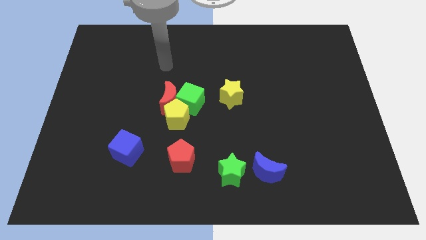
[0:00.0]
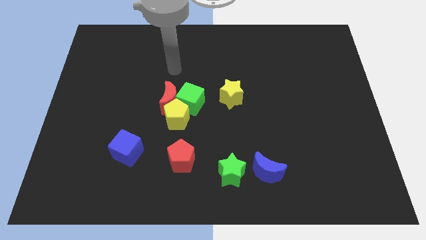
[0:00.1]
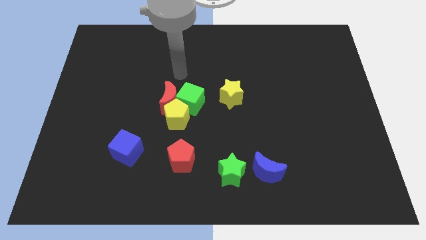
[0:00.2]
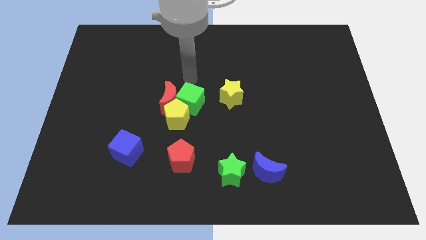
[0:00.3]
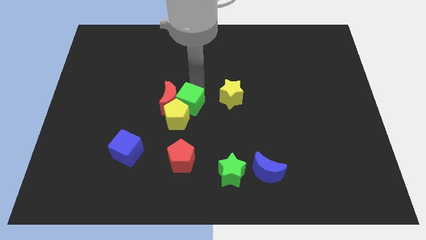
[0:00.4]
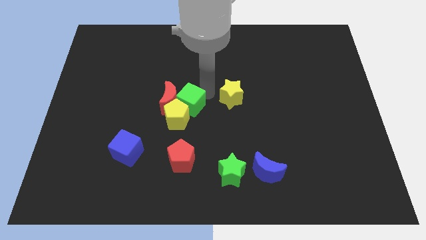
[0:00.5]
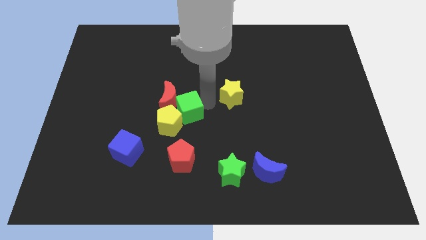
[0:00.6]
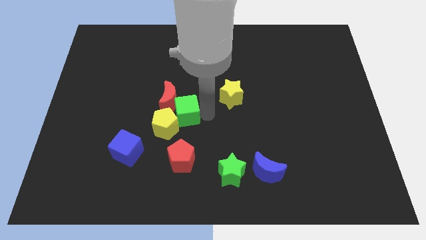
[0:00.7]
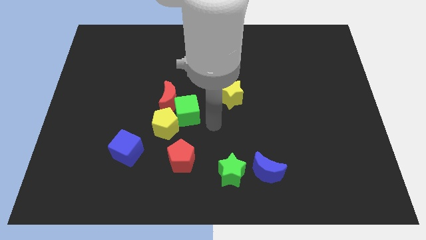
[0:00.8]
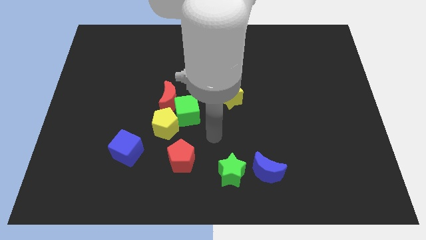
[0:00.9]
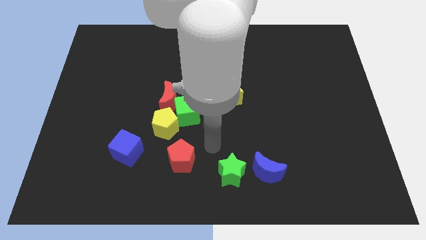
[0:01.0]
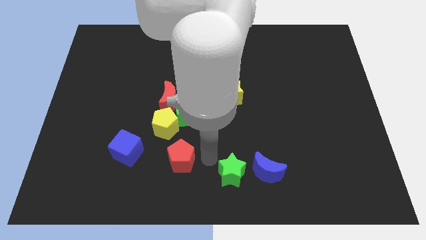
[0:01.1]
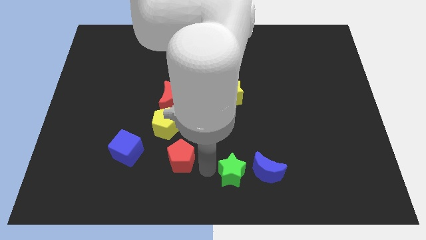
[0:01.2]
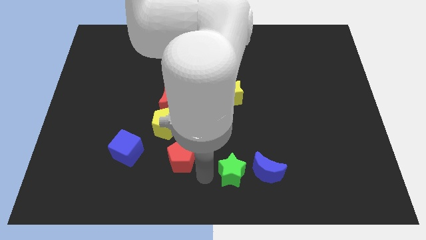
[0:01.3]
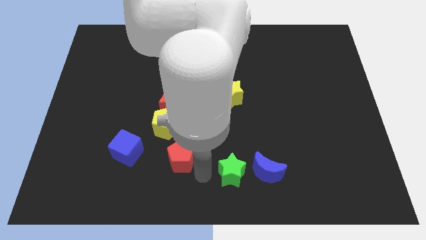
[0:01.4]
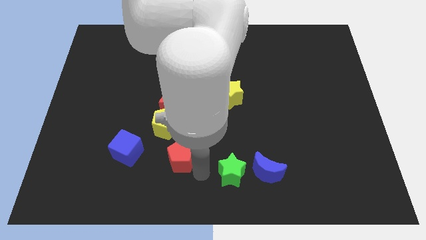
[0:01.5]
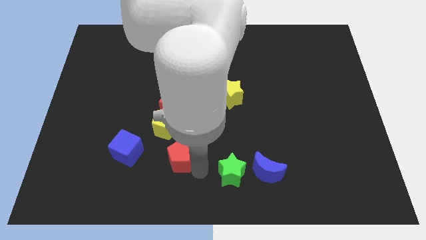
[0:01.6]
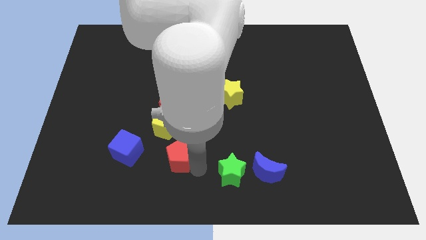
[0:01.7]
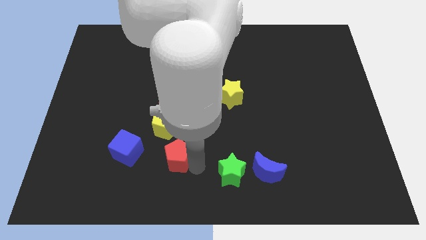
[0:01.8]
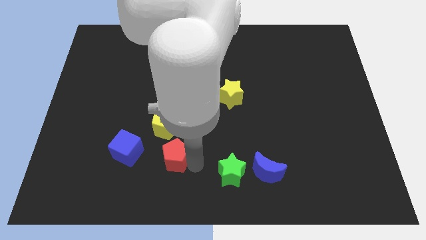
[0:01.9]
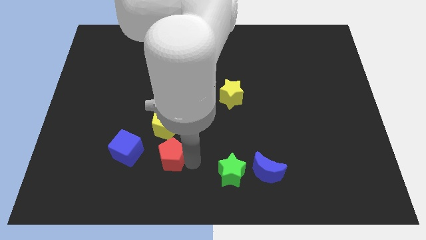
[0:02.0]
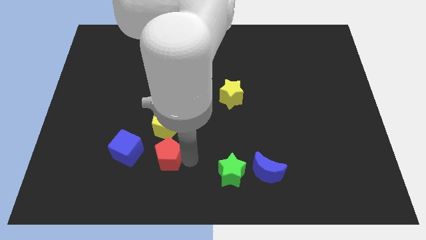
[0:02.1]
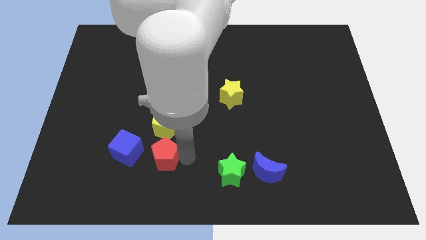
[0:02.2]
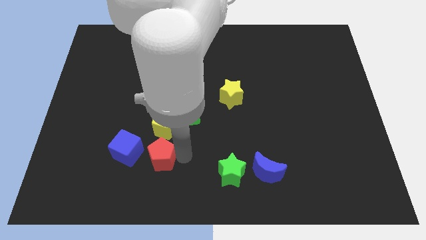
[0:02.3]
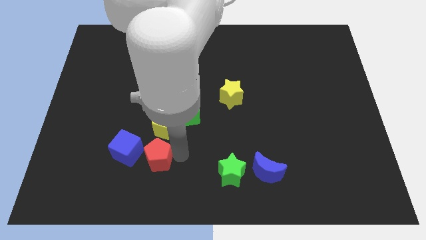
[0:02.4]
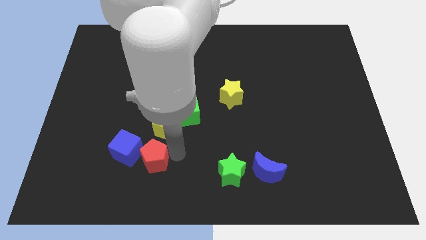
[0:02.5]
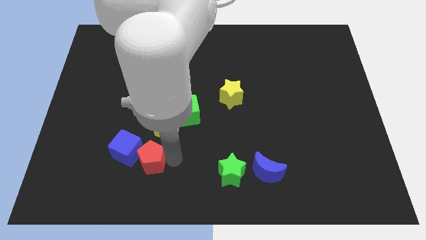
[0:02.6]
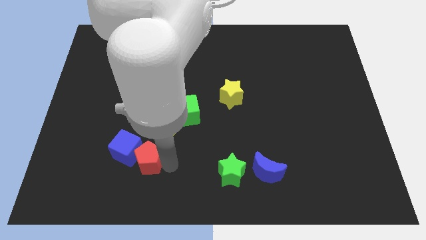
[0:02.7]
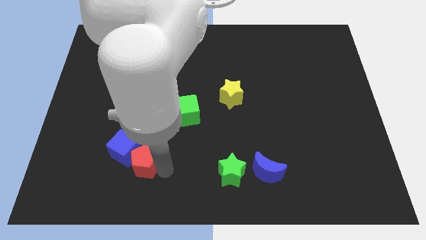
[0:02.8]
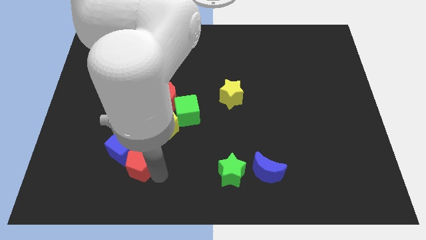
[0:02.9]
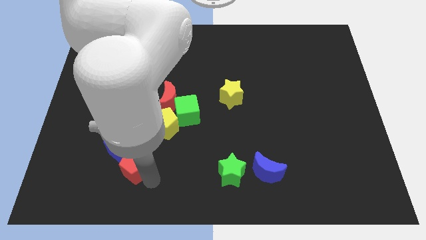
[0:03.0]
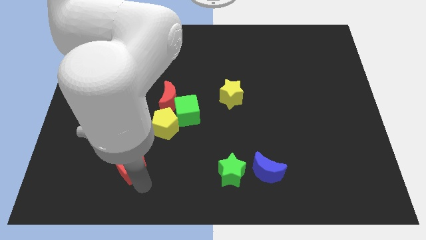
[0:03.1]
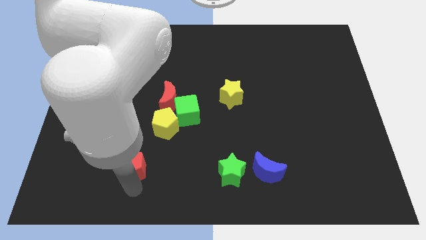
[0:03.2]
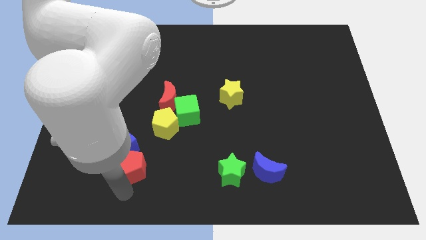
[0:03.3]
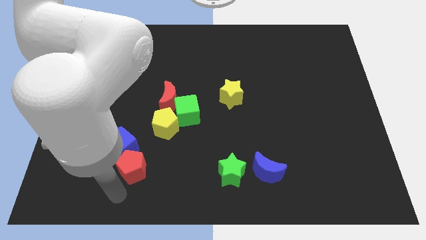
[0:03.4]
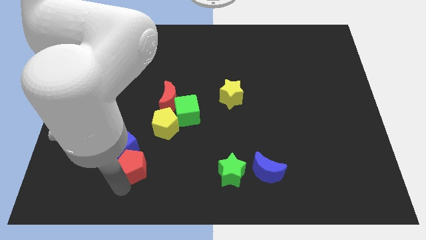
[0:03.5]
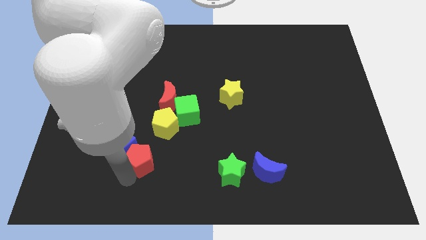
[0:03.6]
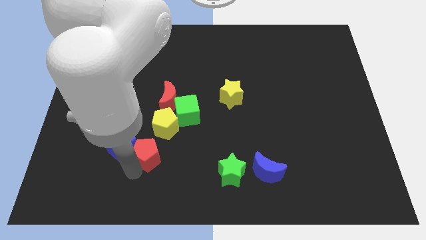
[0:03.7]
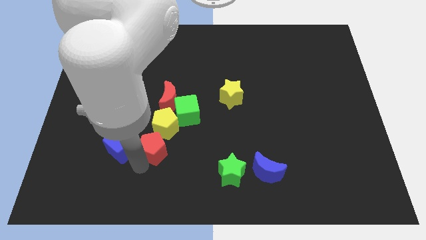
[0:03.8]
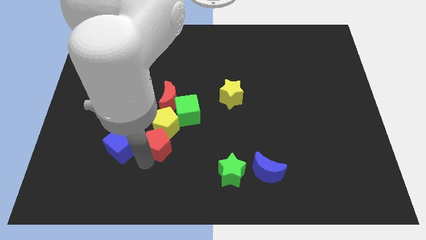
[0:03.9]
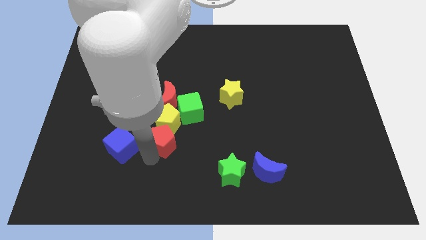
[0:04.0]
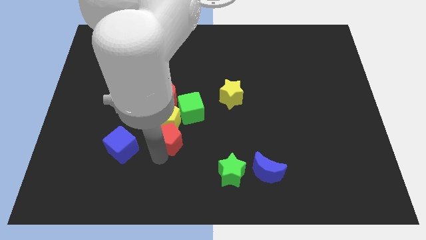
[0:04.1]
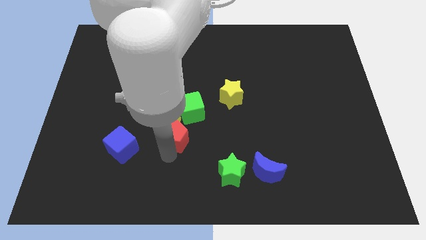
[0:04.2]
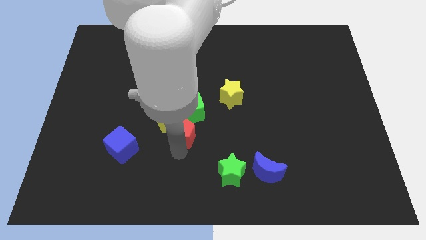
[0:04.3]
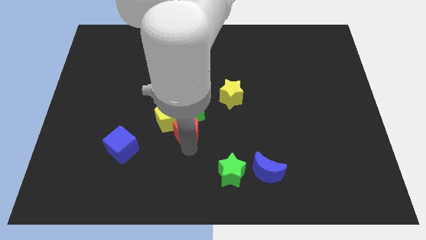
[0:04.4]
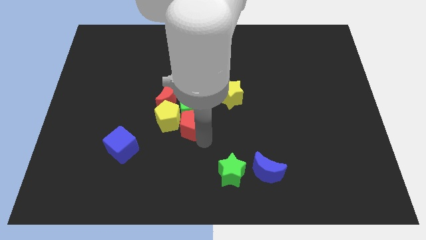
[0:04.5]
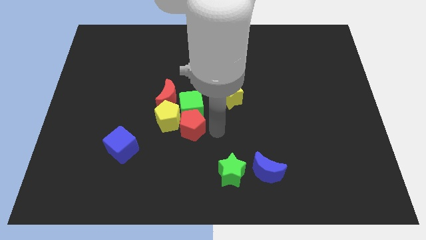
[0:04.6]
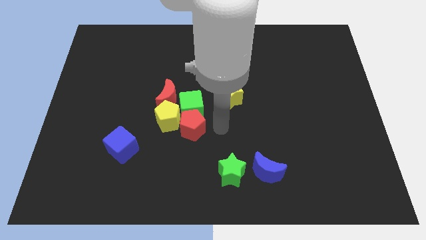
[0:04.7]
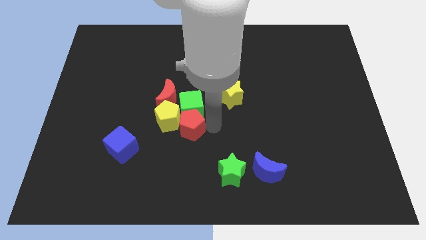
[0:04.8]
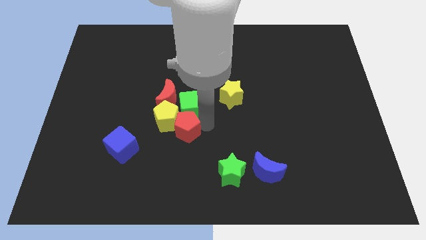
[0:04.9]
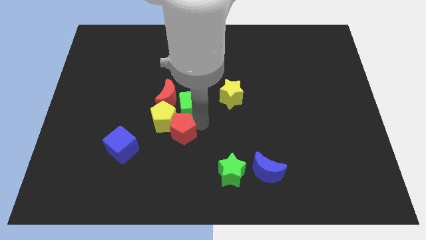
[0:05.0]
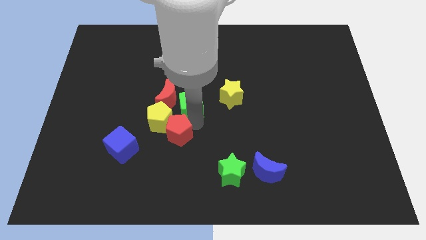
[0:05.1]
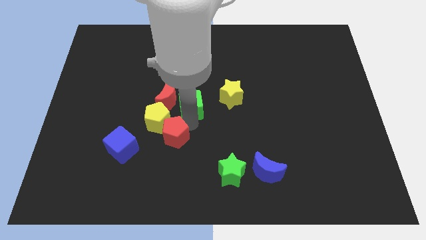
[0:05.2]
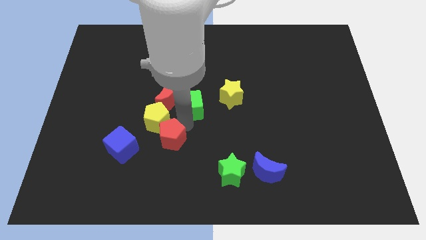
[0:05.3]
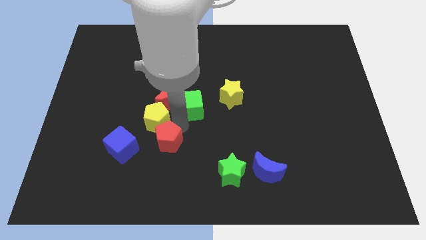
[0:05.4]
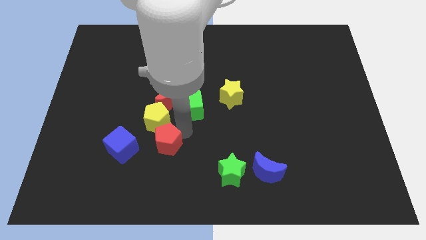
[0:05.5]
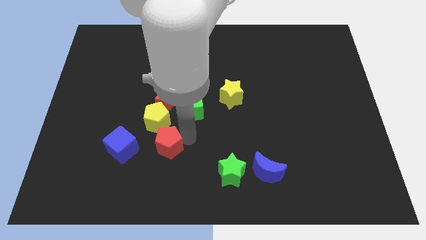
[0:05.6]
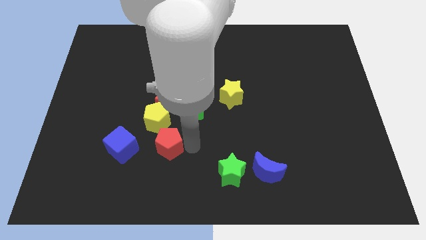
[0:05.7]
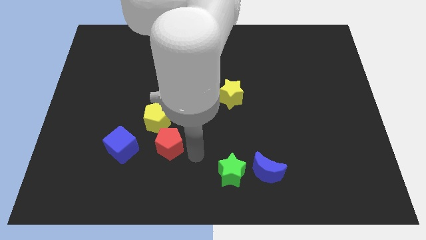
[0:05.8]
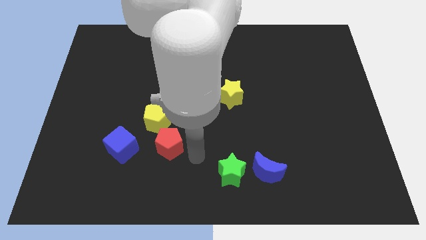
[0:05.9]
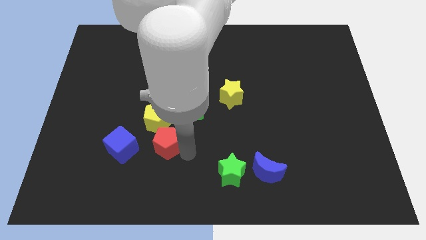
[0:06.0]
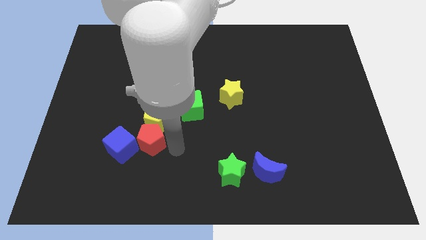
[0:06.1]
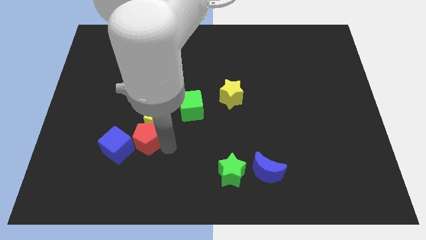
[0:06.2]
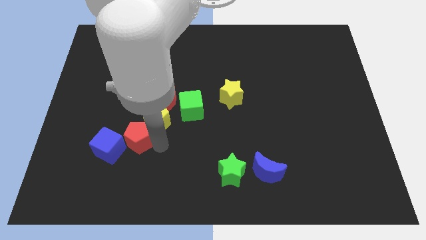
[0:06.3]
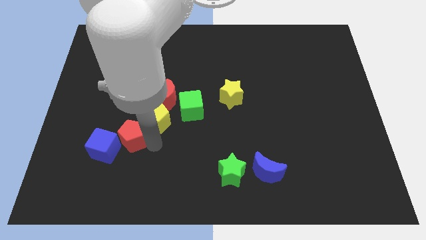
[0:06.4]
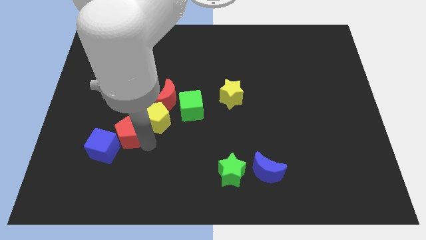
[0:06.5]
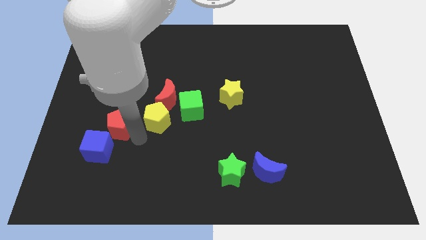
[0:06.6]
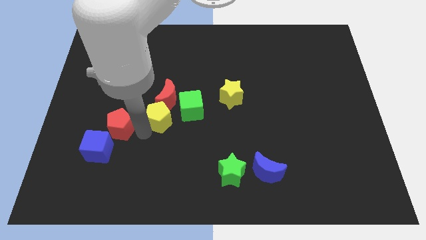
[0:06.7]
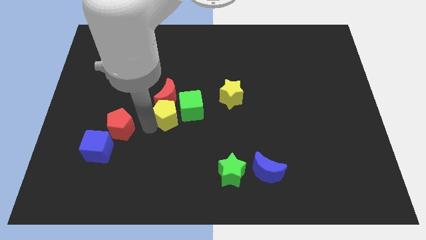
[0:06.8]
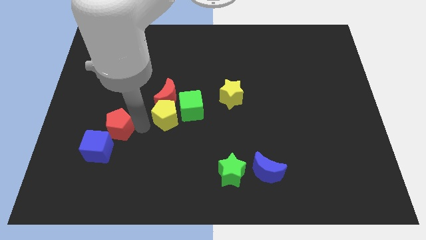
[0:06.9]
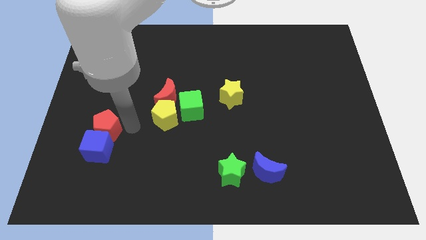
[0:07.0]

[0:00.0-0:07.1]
slide the red pentagon to the top left of the blue cube
